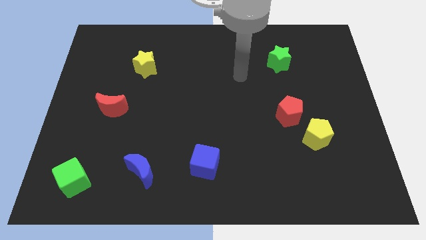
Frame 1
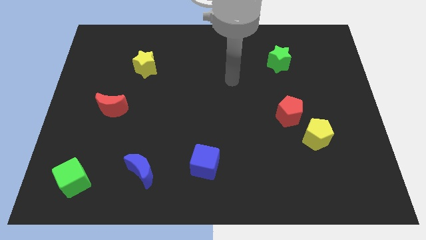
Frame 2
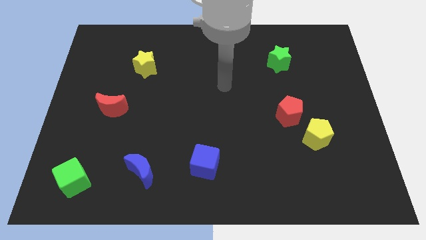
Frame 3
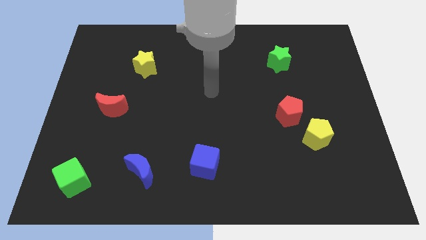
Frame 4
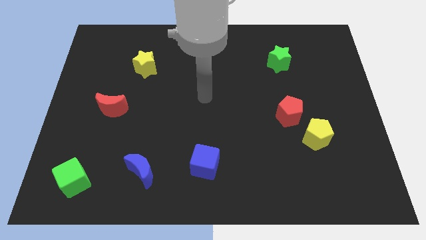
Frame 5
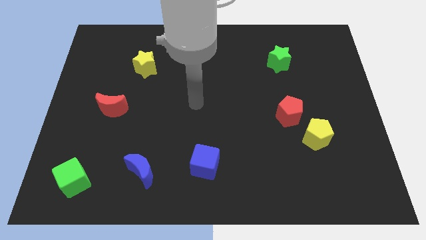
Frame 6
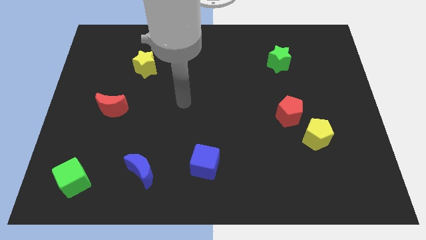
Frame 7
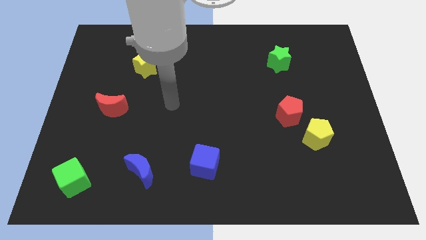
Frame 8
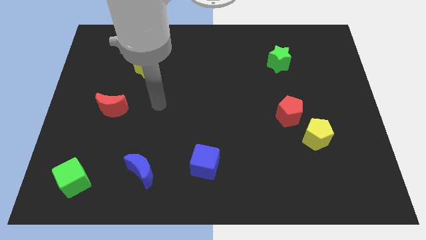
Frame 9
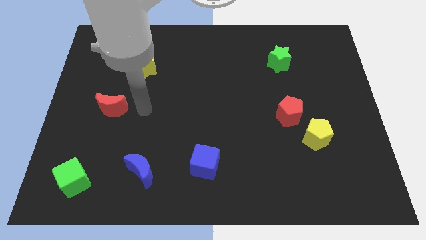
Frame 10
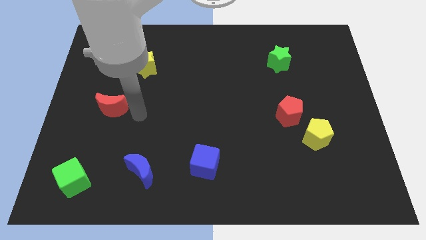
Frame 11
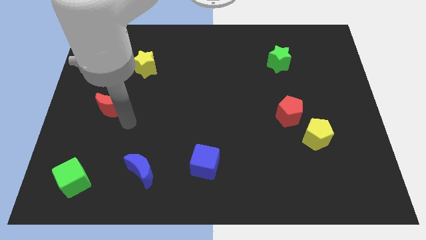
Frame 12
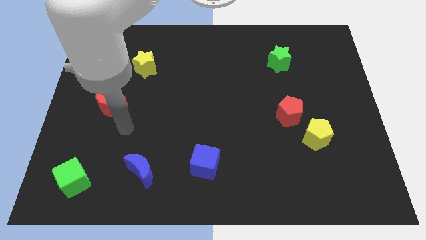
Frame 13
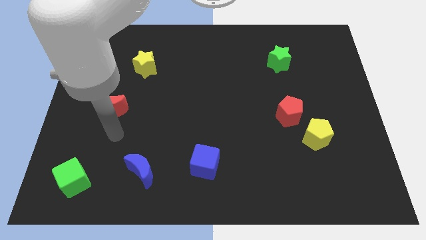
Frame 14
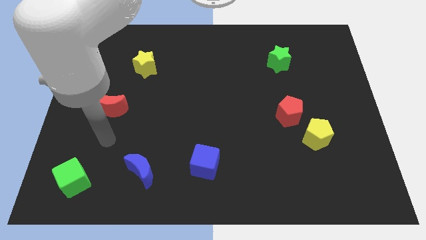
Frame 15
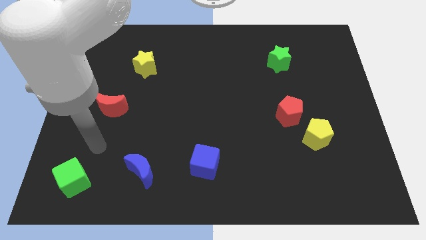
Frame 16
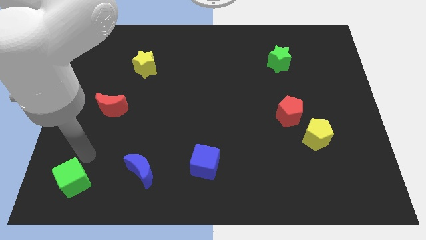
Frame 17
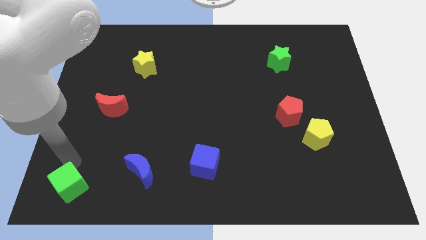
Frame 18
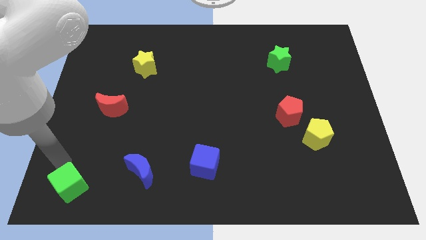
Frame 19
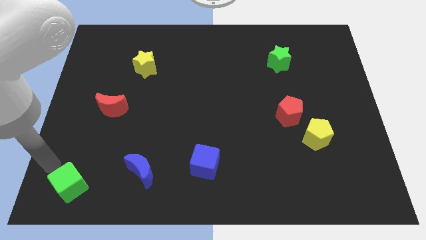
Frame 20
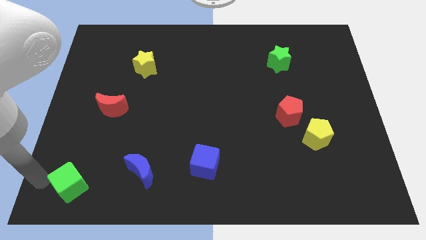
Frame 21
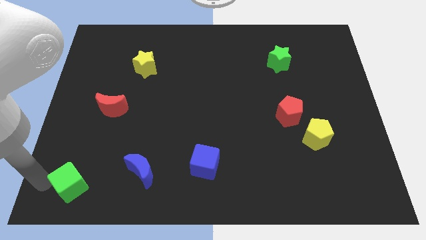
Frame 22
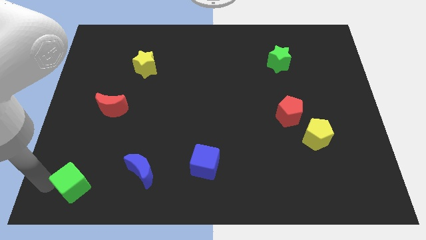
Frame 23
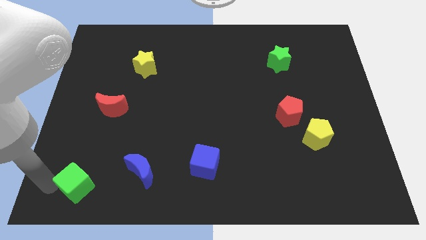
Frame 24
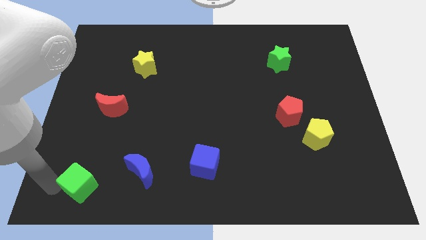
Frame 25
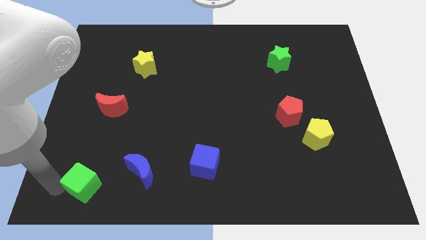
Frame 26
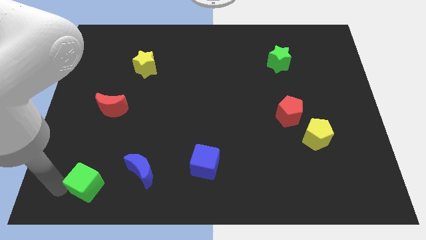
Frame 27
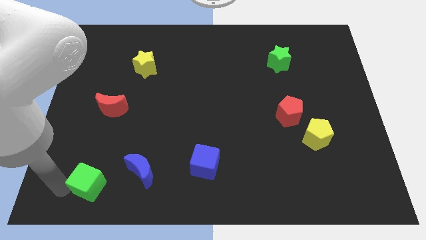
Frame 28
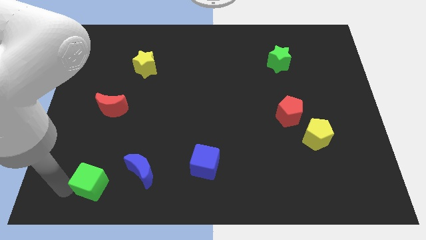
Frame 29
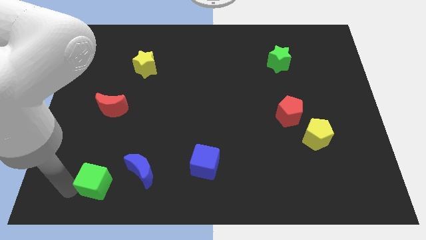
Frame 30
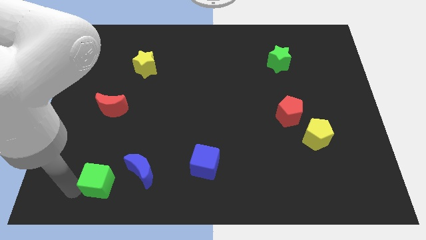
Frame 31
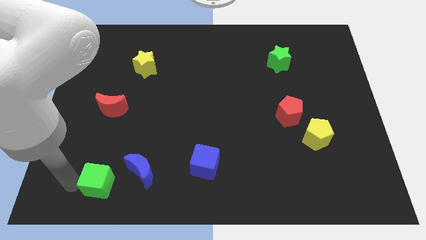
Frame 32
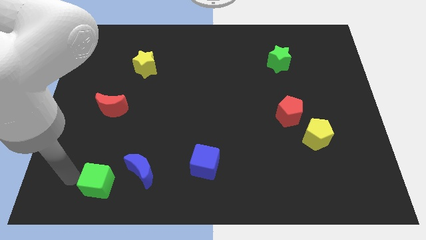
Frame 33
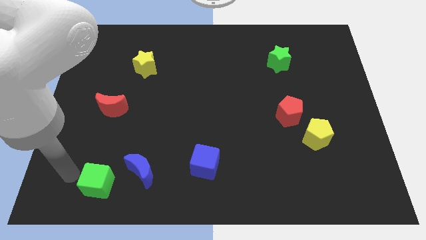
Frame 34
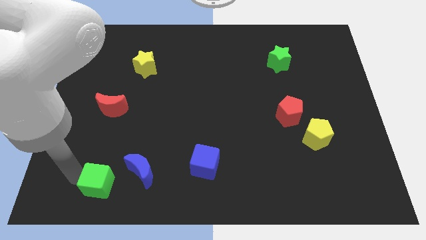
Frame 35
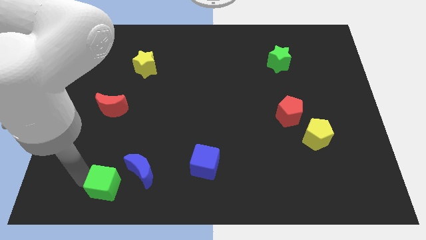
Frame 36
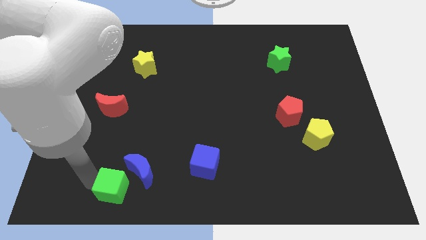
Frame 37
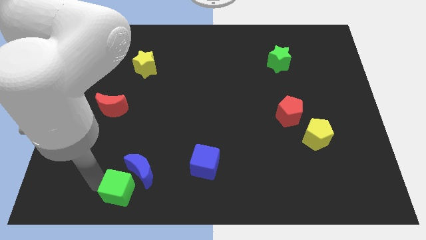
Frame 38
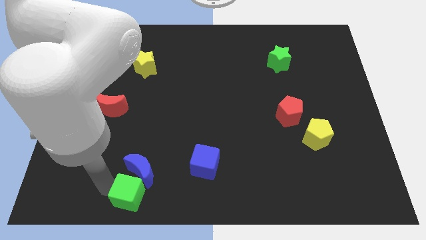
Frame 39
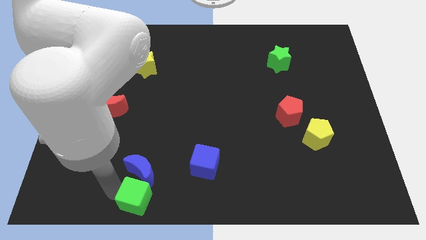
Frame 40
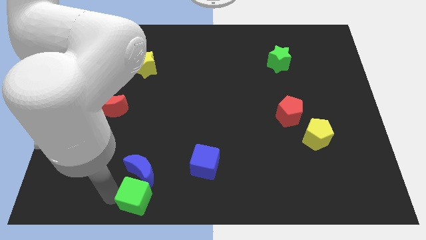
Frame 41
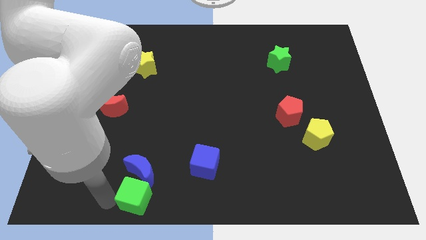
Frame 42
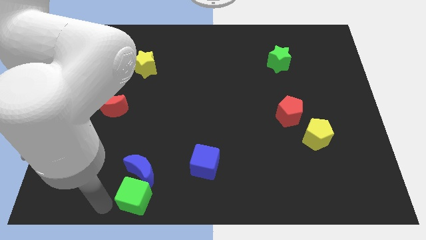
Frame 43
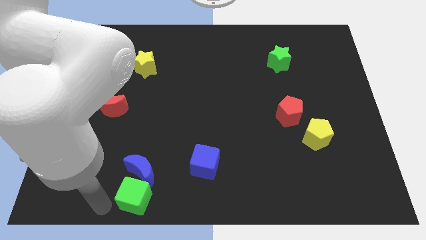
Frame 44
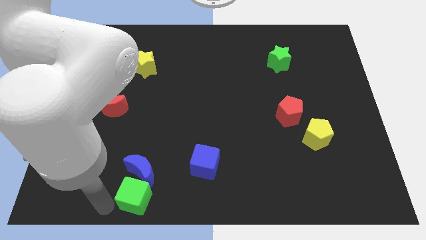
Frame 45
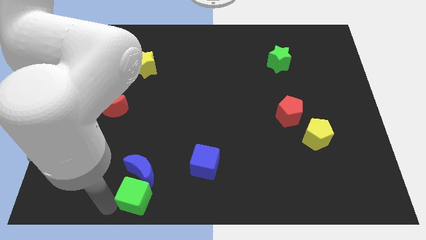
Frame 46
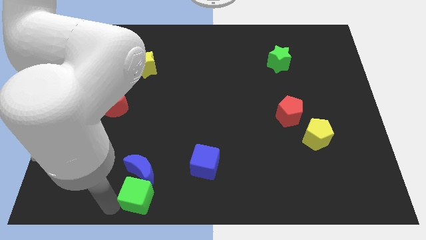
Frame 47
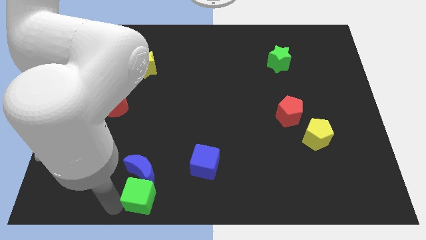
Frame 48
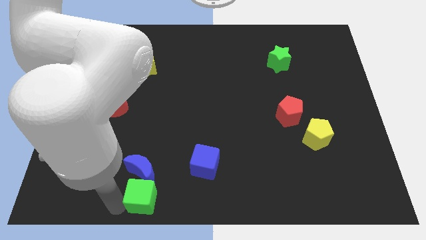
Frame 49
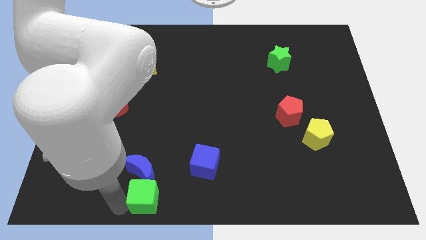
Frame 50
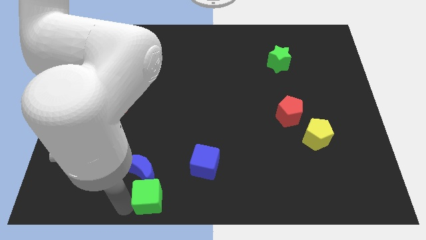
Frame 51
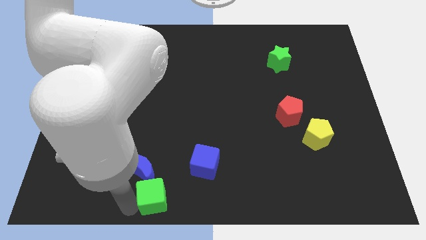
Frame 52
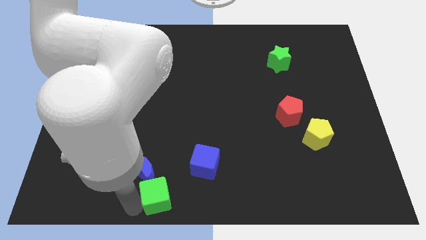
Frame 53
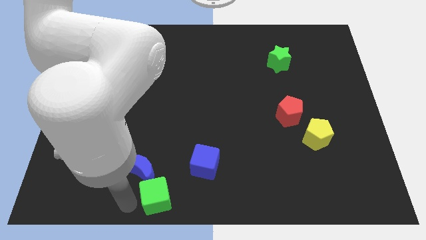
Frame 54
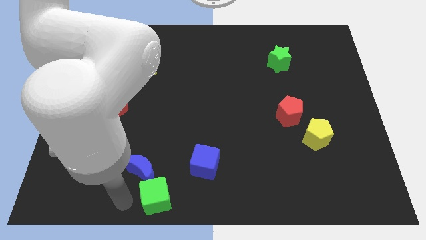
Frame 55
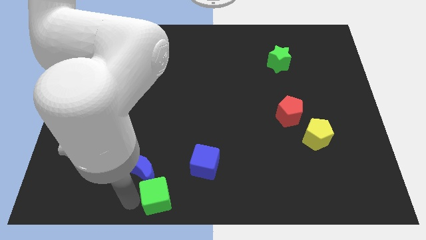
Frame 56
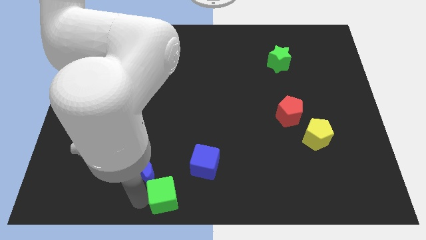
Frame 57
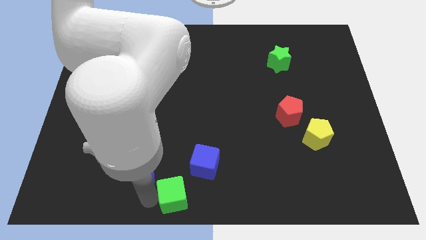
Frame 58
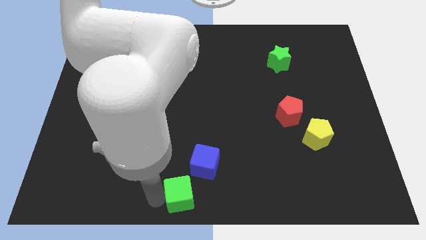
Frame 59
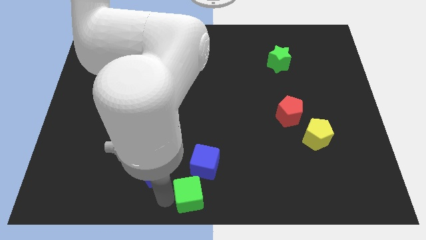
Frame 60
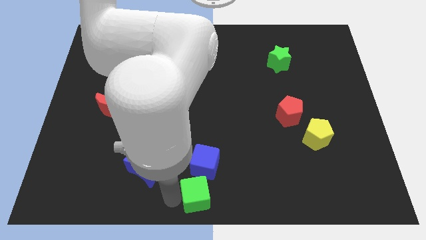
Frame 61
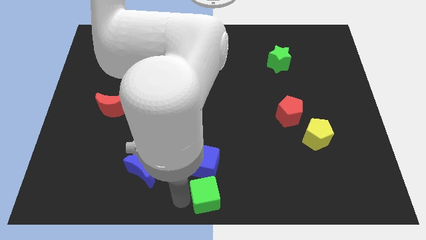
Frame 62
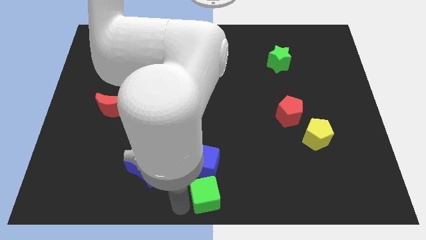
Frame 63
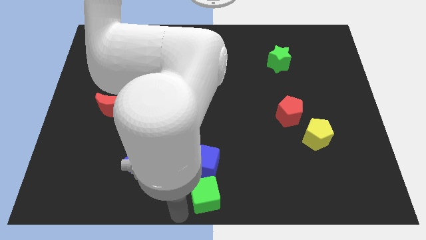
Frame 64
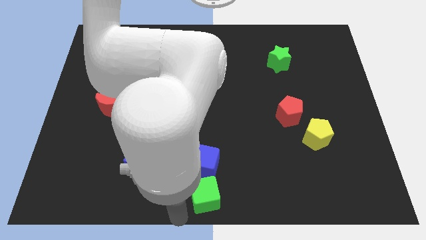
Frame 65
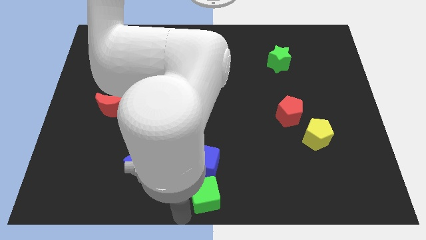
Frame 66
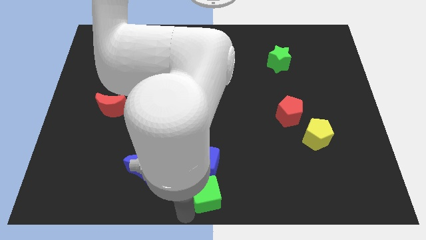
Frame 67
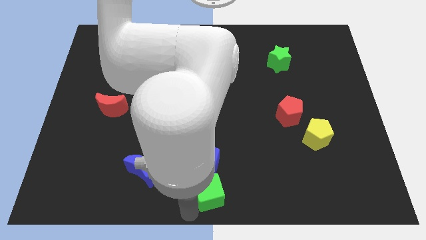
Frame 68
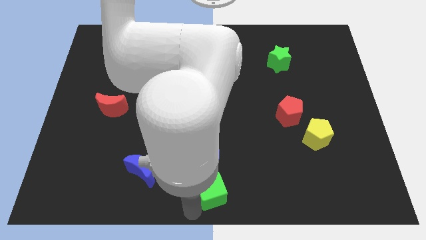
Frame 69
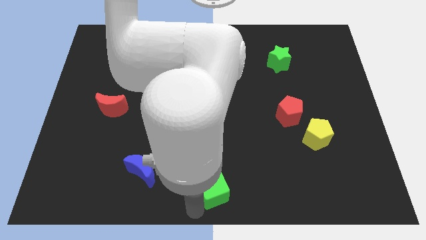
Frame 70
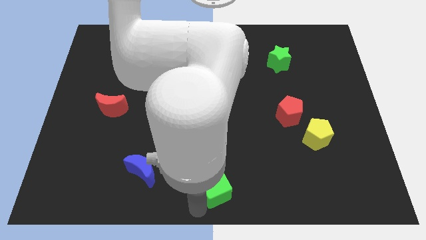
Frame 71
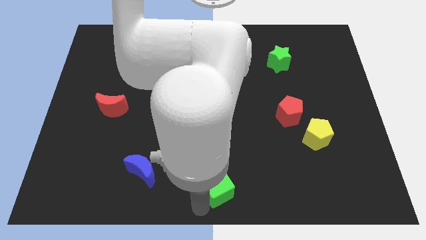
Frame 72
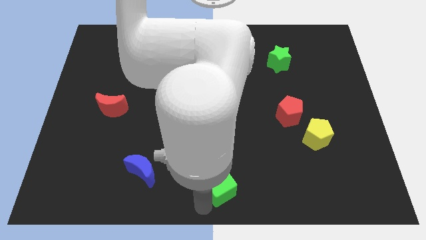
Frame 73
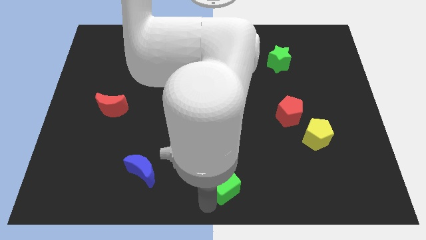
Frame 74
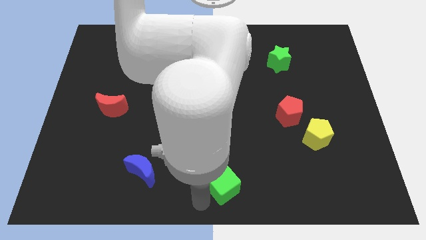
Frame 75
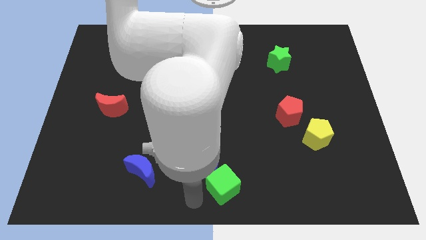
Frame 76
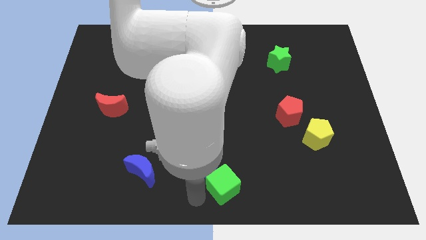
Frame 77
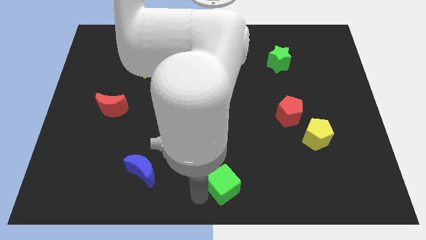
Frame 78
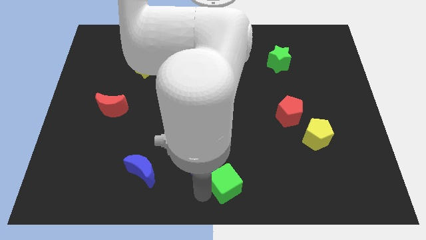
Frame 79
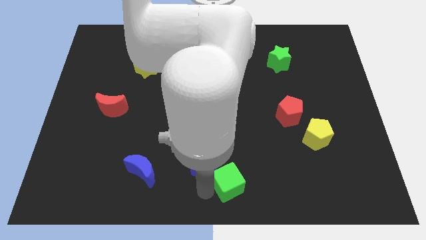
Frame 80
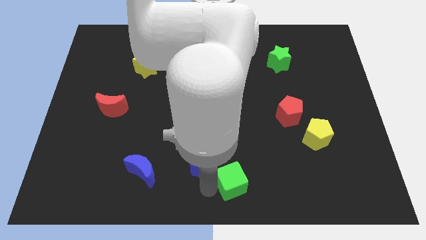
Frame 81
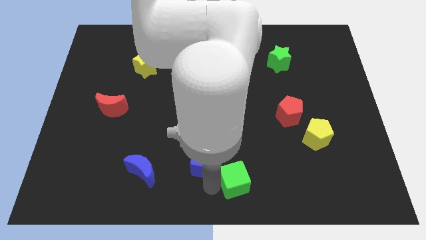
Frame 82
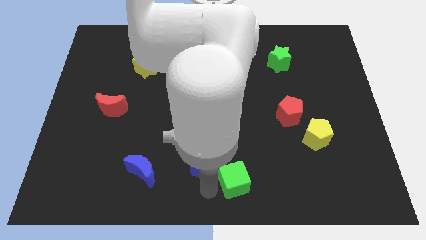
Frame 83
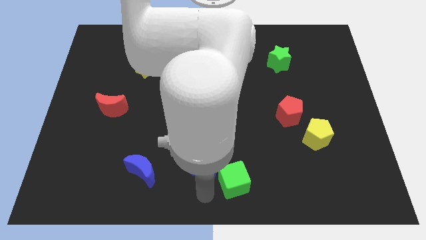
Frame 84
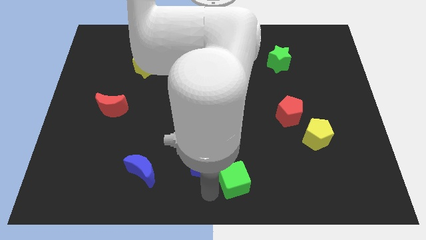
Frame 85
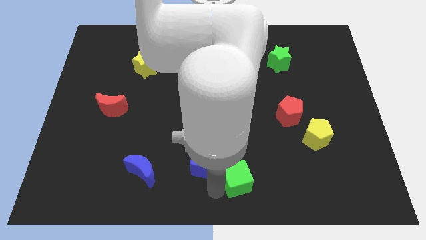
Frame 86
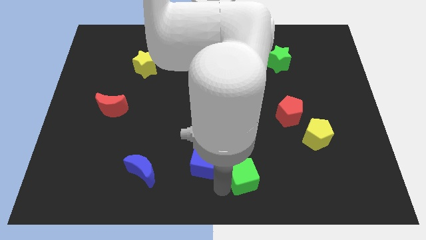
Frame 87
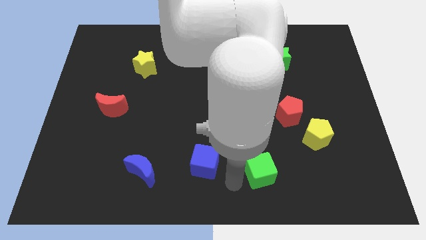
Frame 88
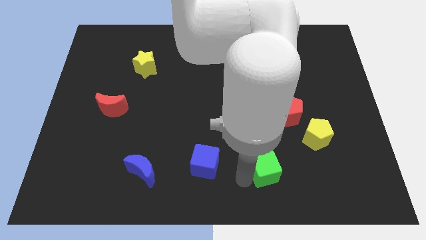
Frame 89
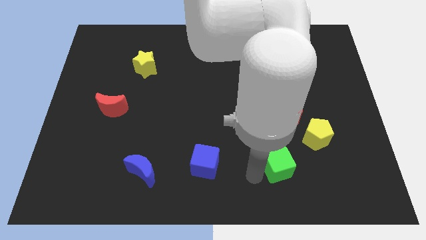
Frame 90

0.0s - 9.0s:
put the green cube to the bottom left side of the yellow pentagon
